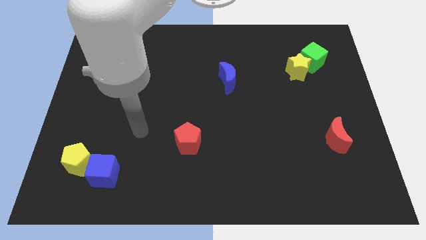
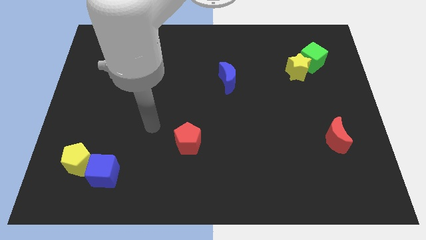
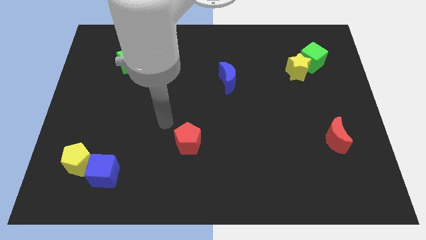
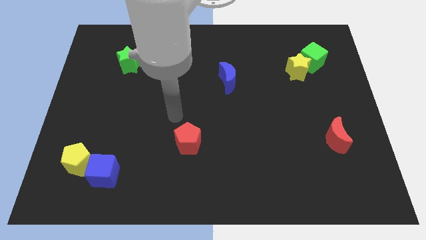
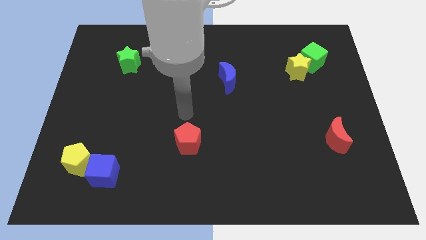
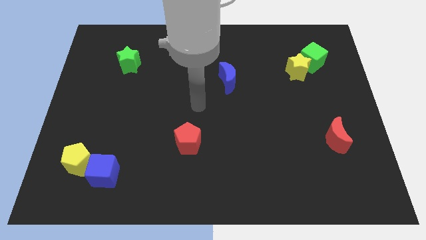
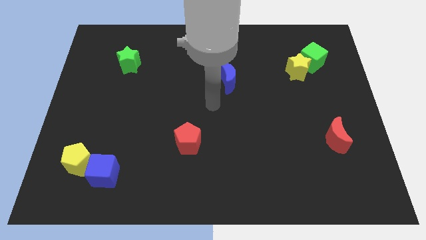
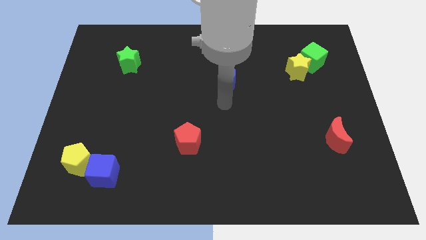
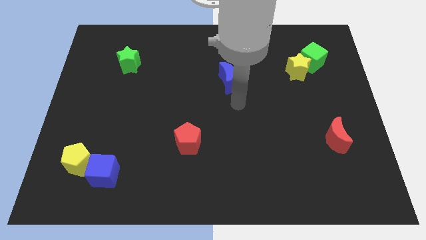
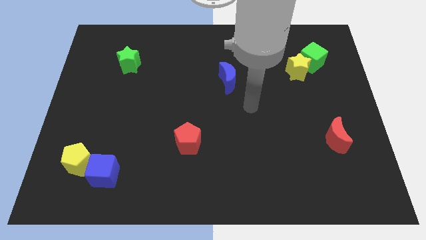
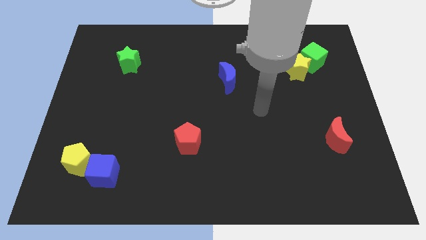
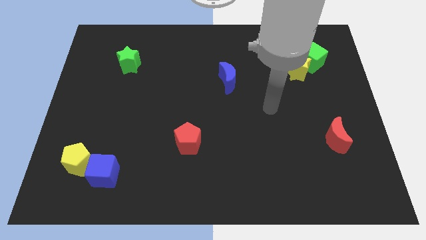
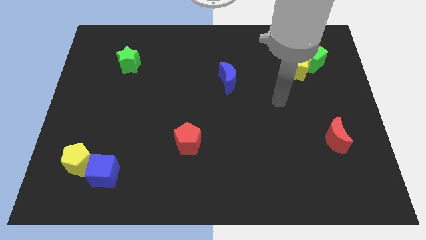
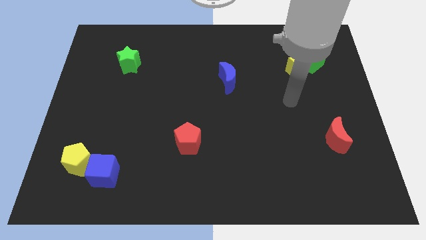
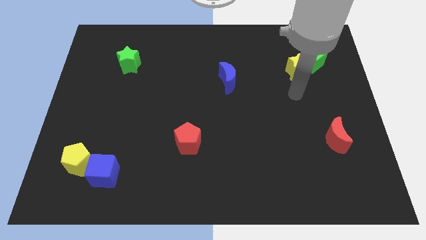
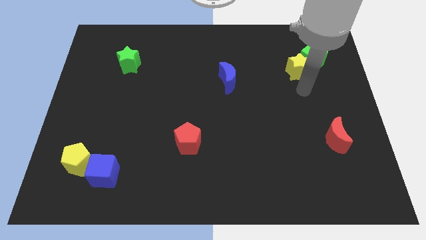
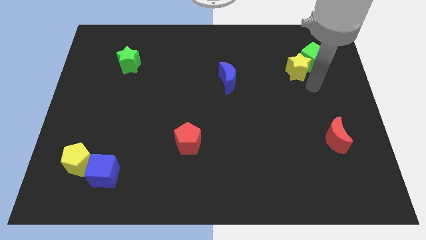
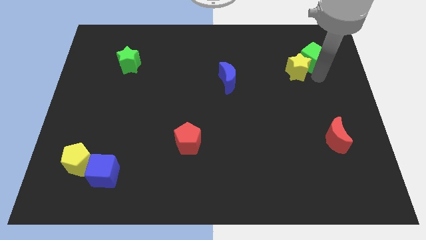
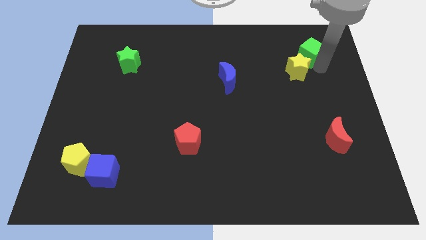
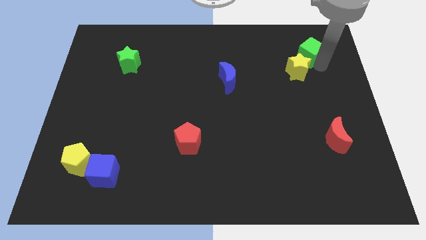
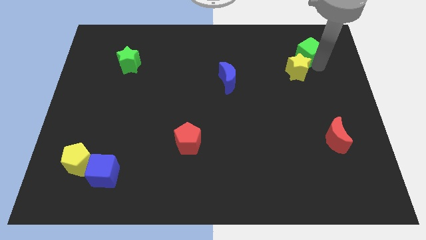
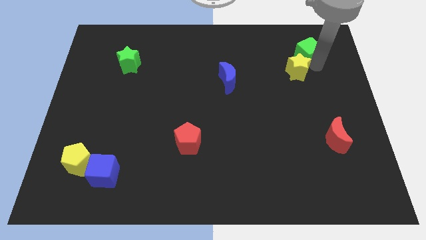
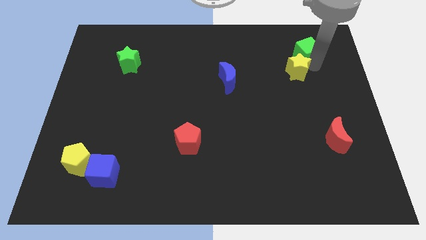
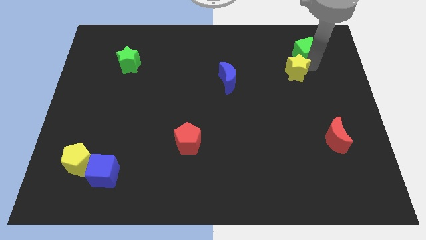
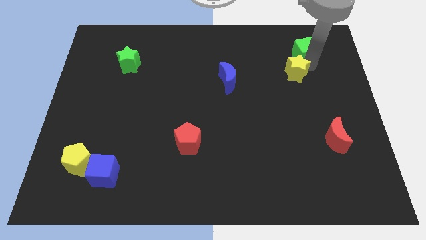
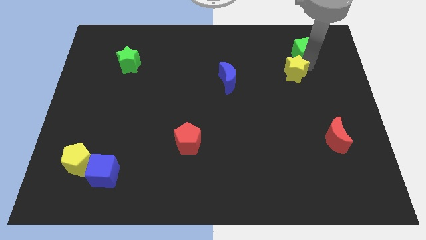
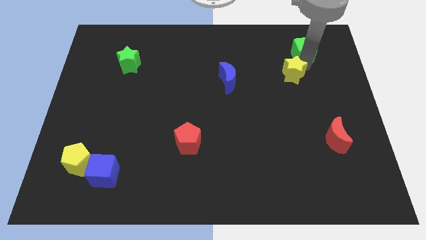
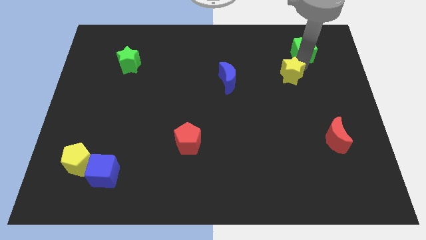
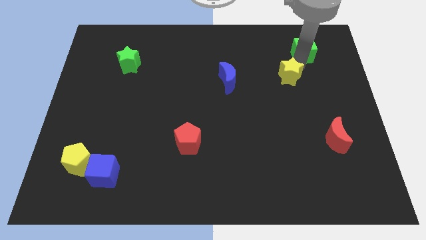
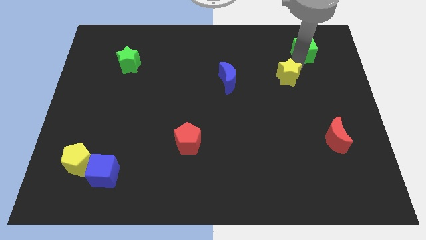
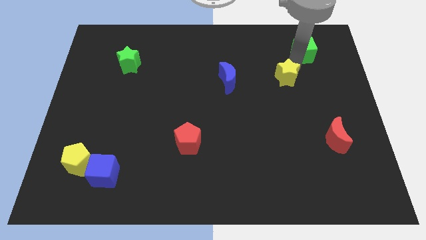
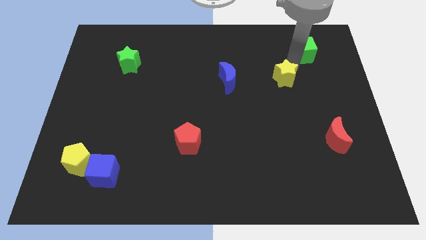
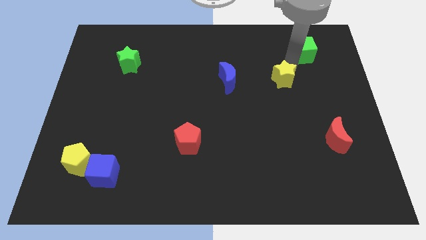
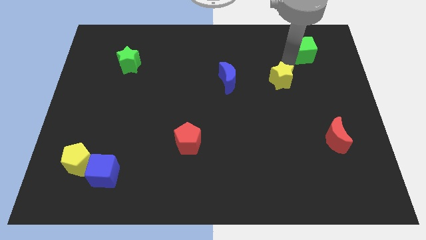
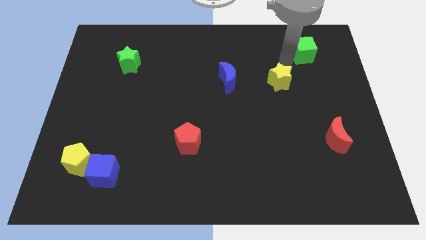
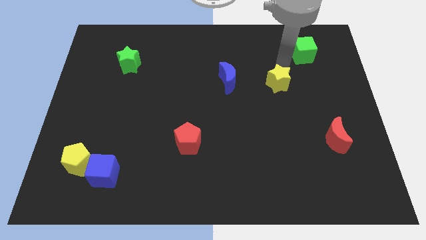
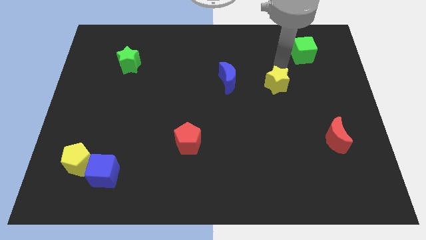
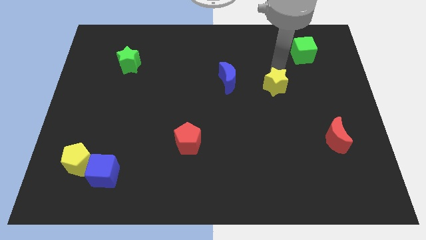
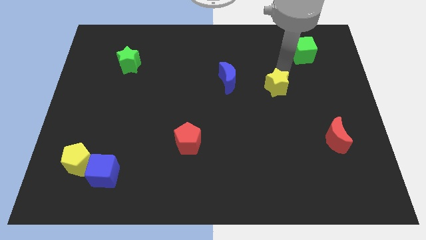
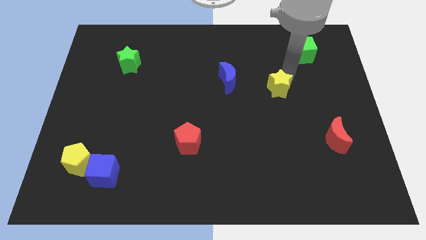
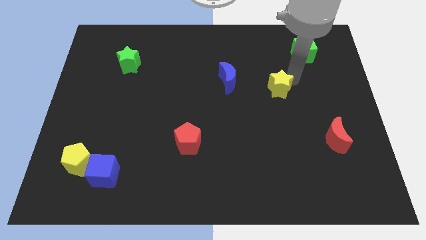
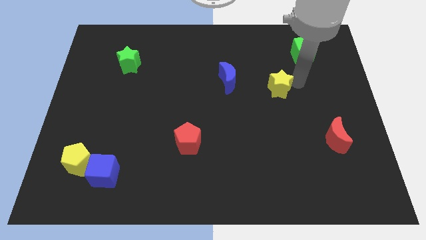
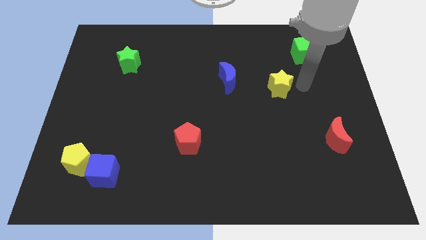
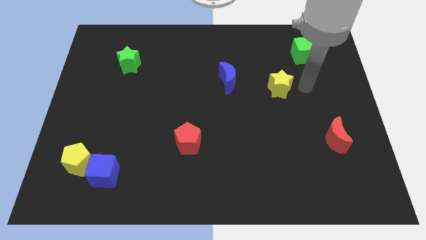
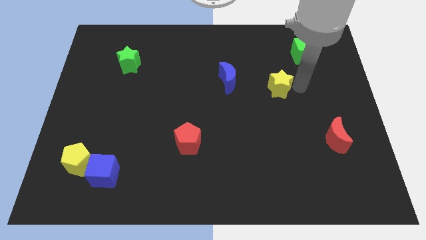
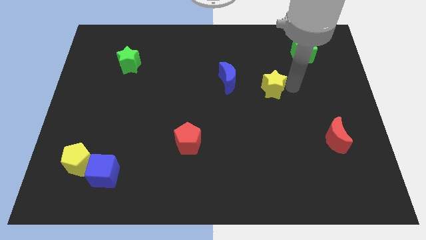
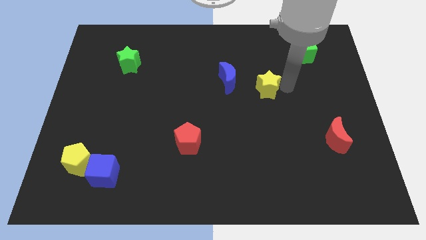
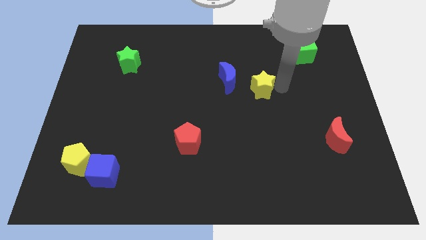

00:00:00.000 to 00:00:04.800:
push the yellow star to the middle of the board

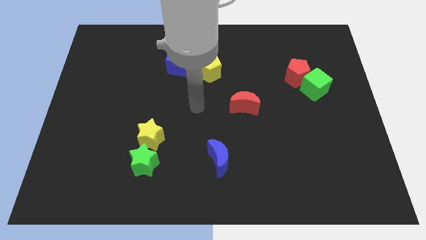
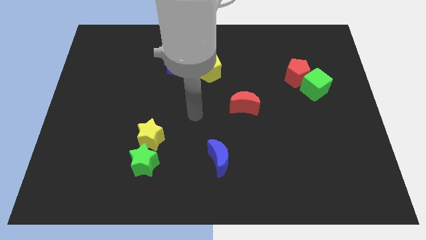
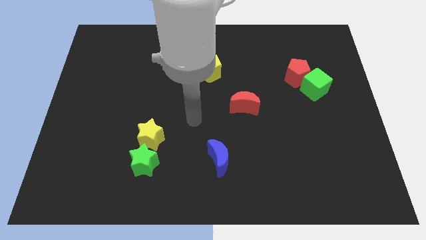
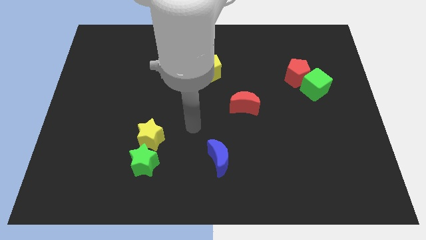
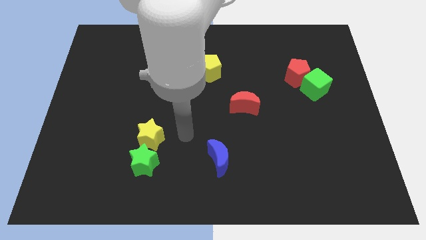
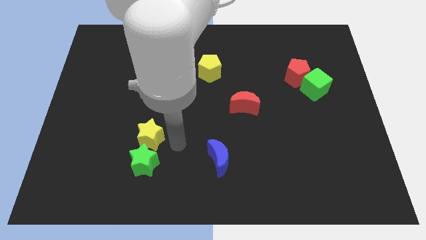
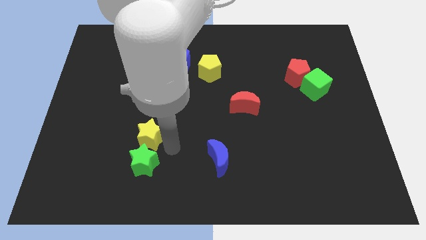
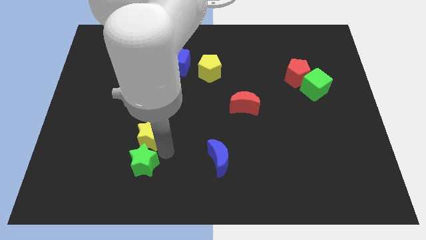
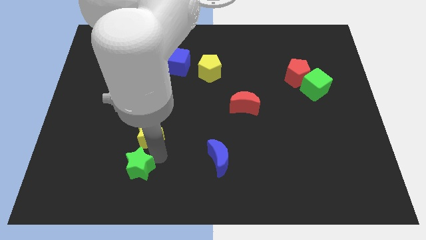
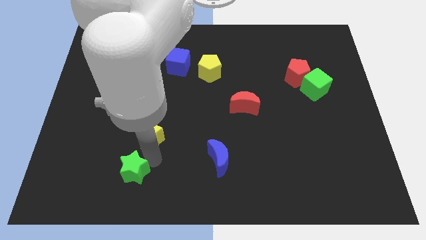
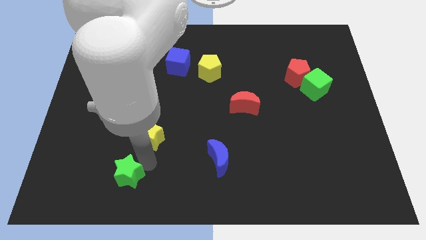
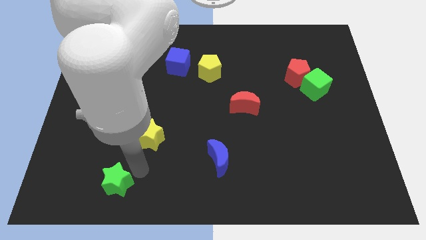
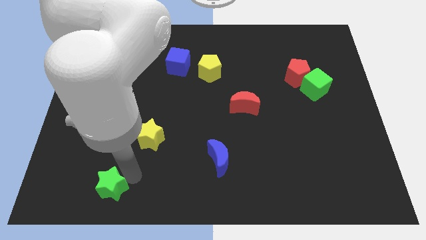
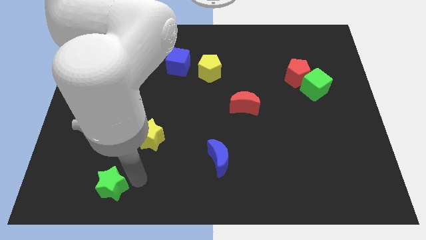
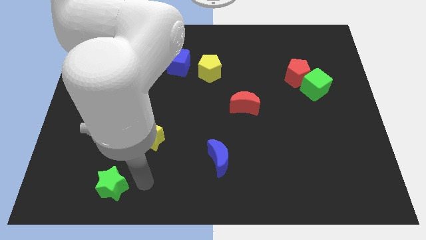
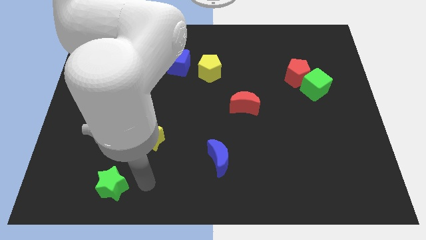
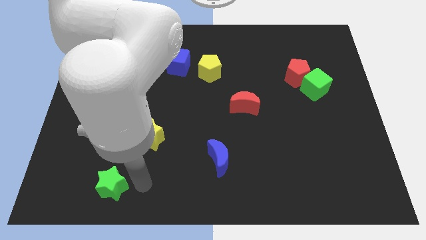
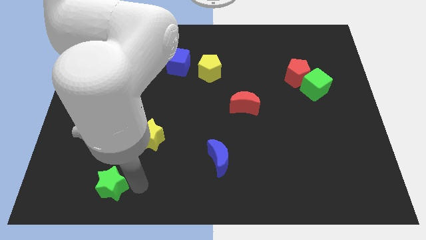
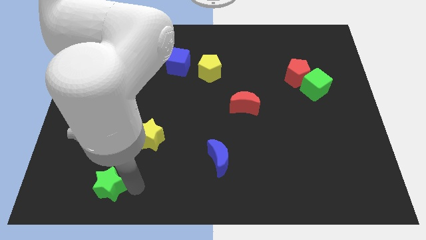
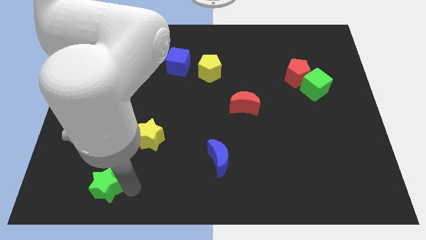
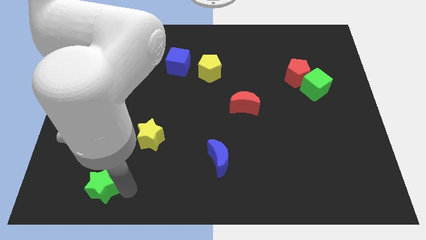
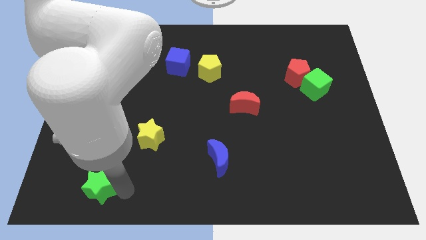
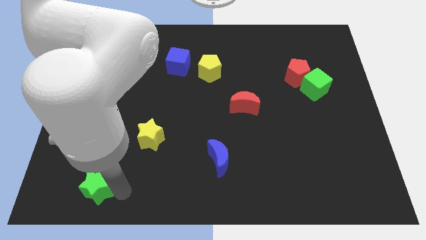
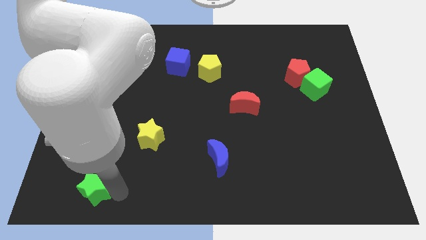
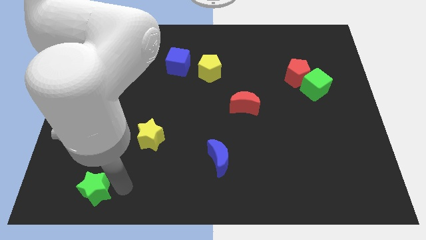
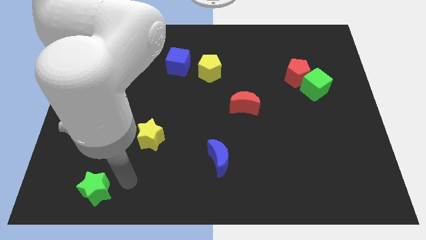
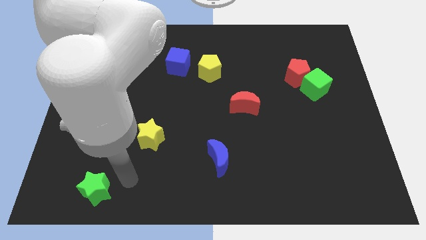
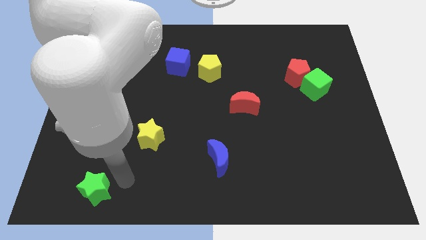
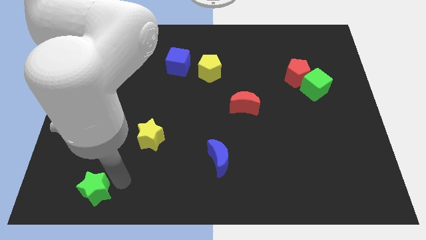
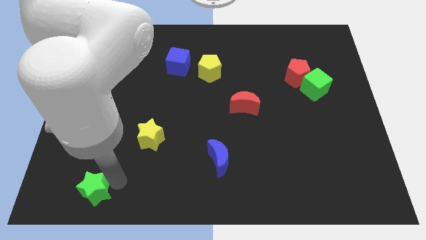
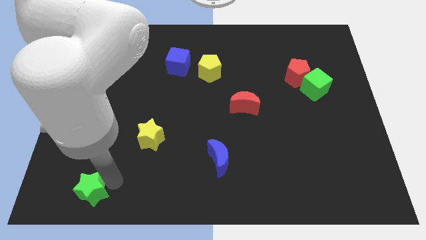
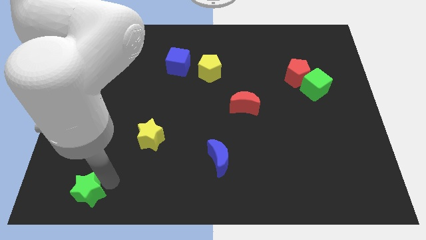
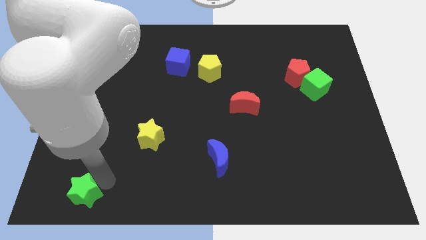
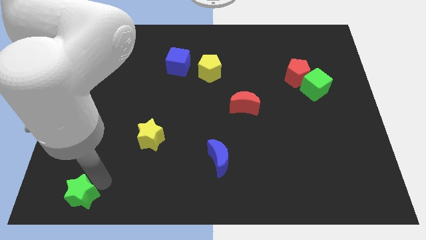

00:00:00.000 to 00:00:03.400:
slide the green star to the bottom left
